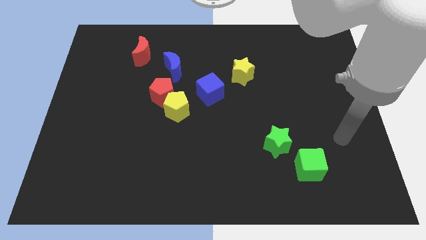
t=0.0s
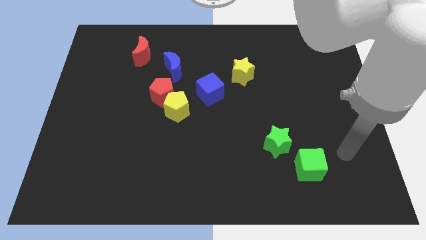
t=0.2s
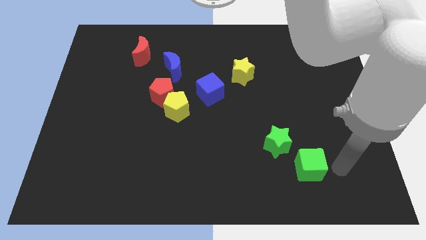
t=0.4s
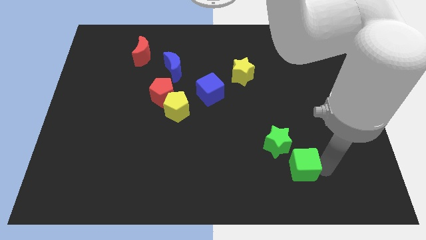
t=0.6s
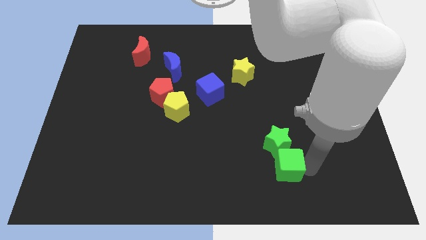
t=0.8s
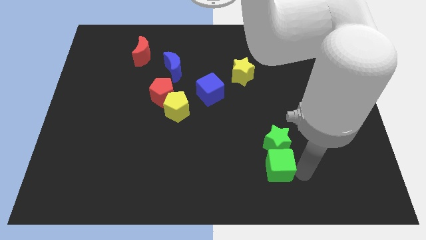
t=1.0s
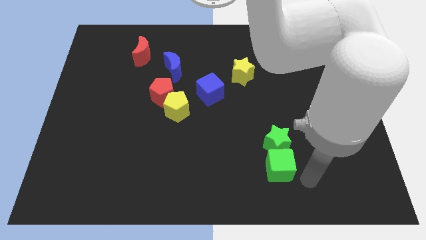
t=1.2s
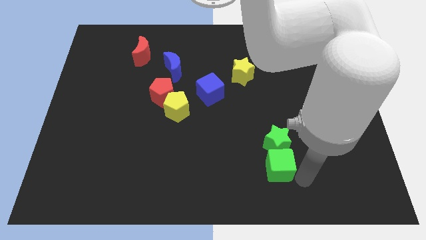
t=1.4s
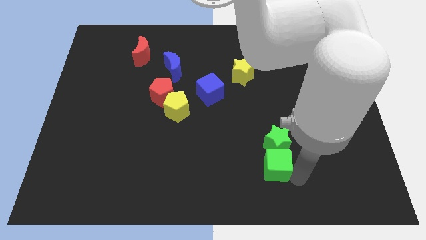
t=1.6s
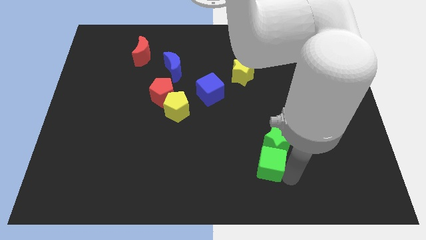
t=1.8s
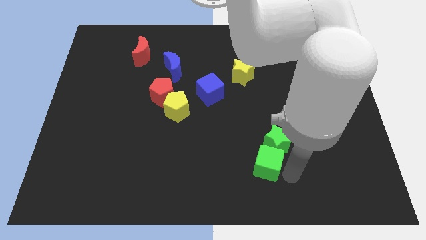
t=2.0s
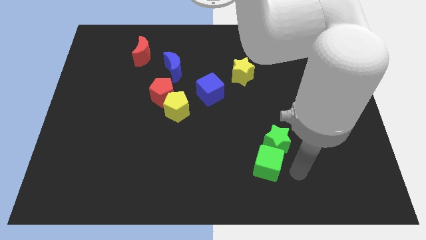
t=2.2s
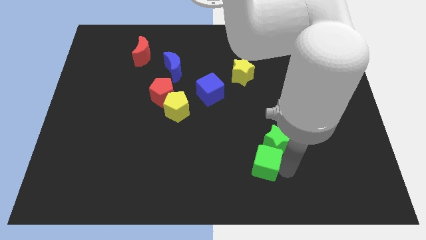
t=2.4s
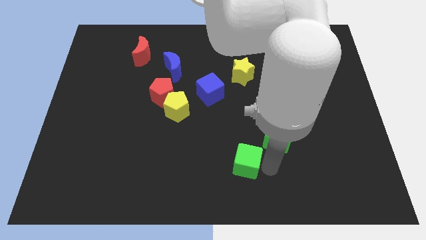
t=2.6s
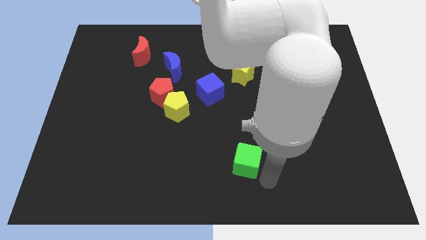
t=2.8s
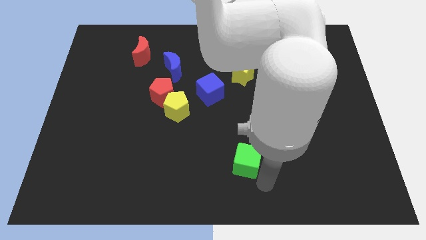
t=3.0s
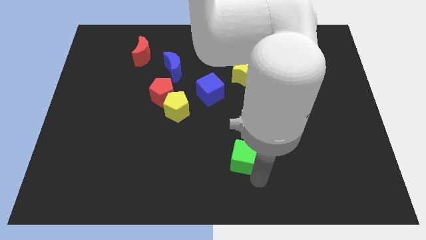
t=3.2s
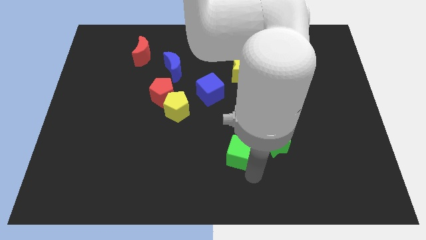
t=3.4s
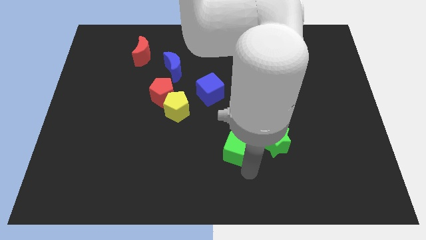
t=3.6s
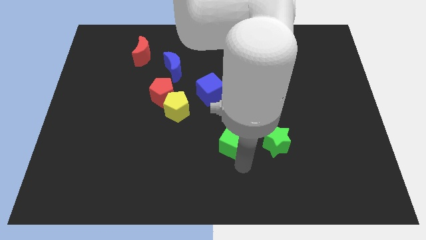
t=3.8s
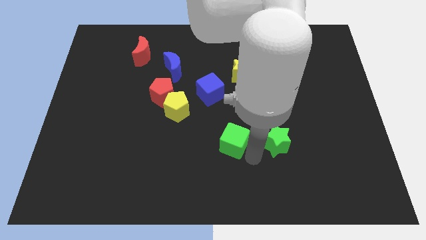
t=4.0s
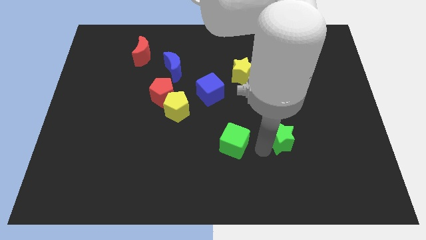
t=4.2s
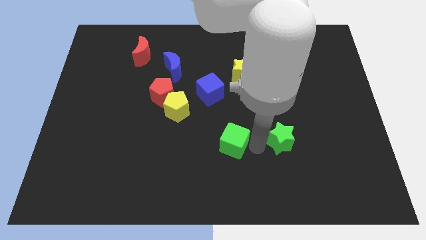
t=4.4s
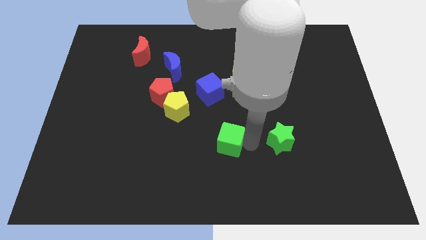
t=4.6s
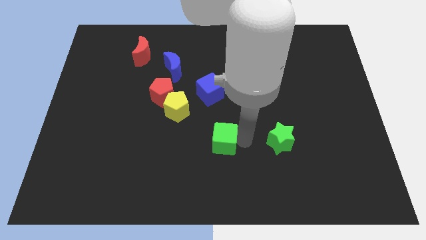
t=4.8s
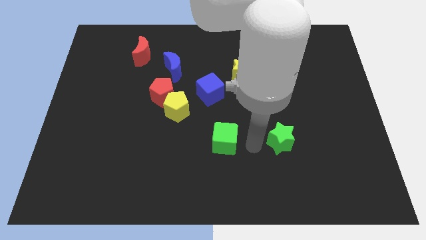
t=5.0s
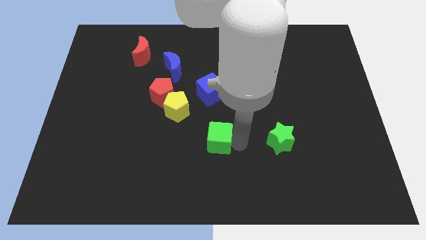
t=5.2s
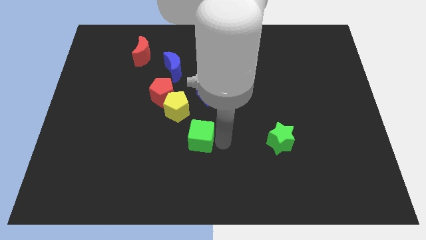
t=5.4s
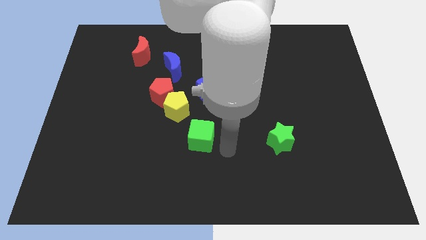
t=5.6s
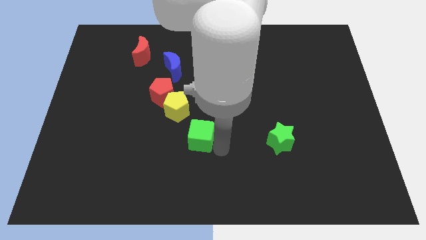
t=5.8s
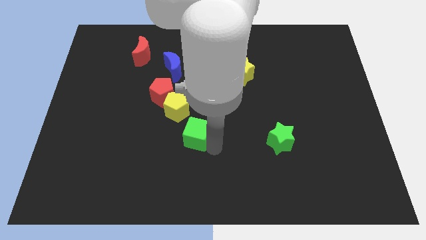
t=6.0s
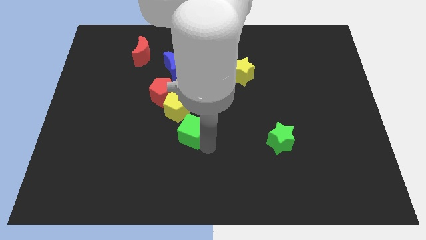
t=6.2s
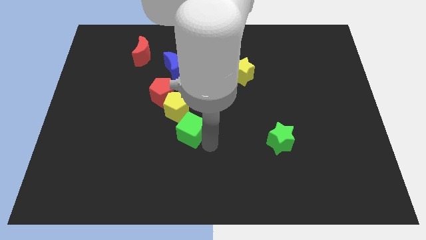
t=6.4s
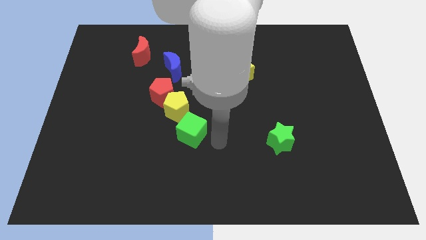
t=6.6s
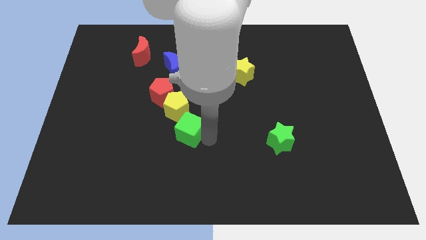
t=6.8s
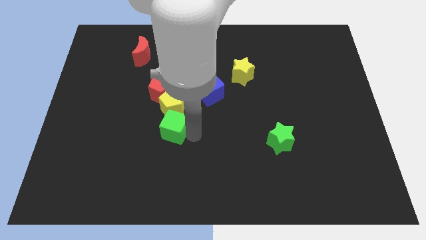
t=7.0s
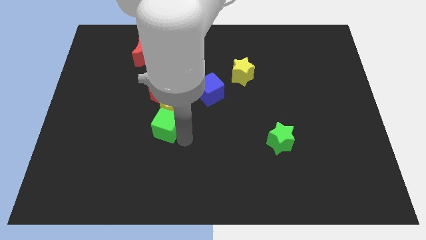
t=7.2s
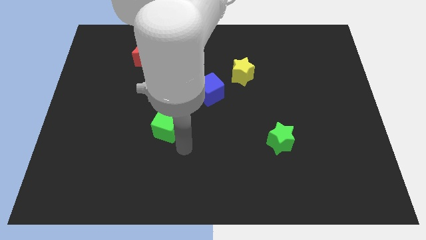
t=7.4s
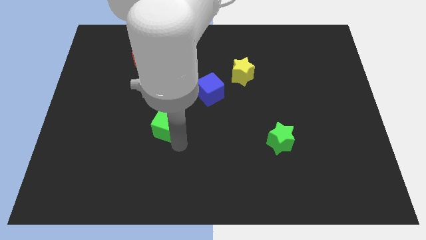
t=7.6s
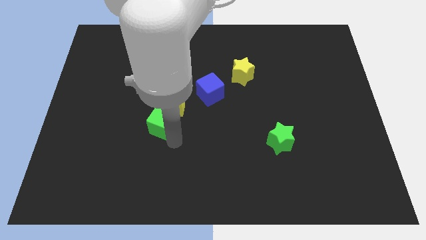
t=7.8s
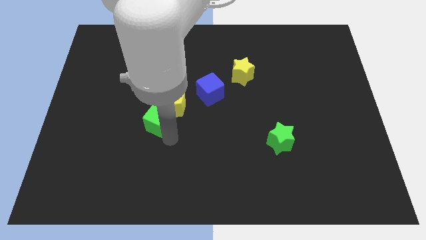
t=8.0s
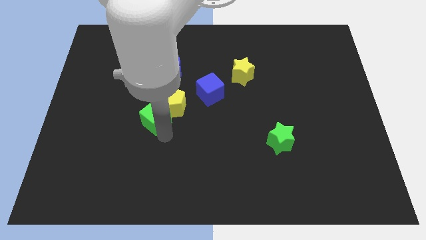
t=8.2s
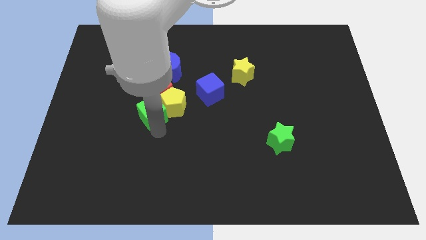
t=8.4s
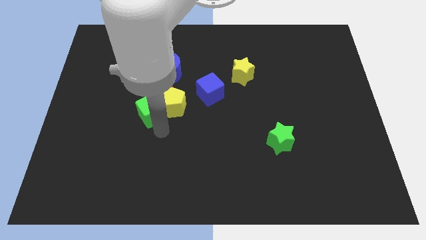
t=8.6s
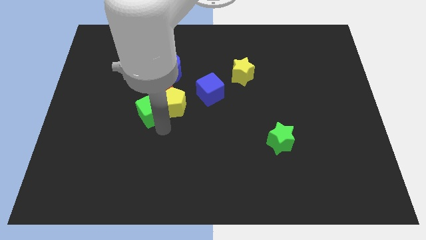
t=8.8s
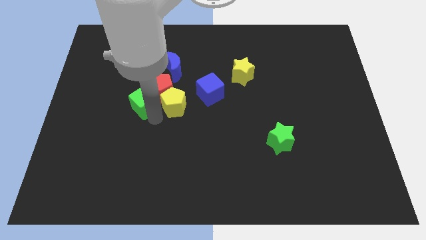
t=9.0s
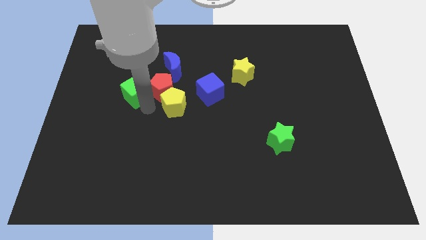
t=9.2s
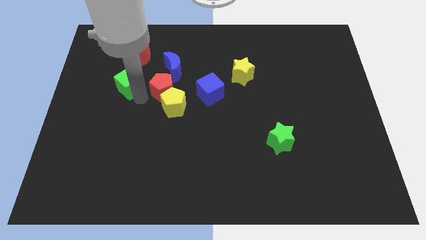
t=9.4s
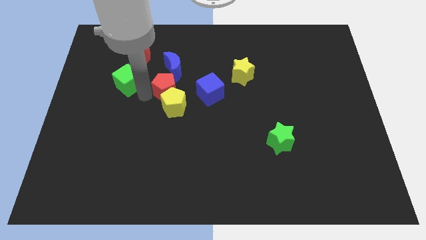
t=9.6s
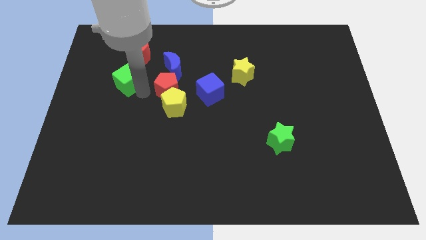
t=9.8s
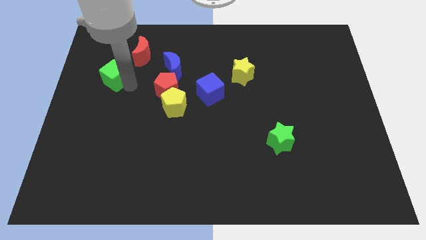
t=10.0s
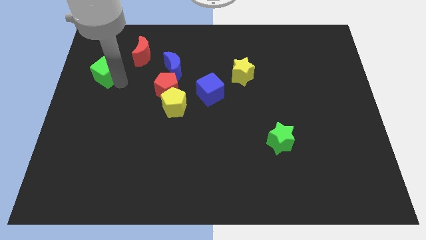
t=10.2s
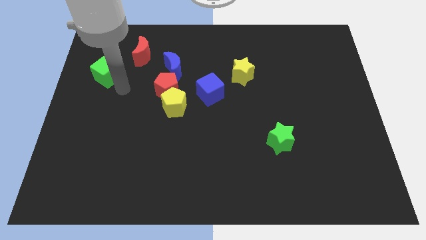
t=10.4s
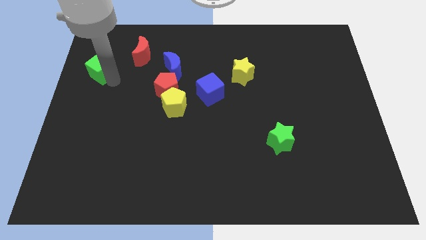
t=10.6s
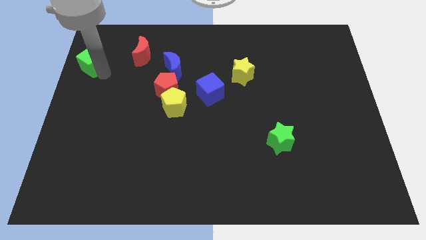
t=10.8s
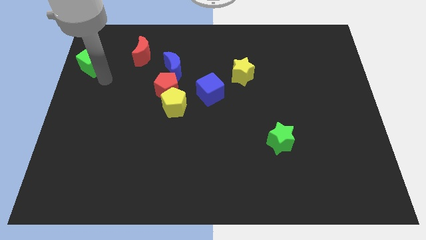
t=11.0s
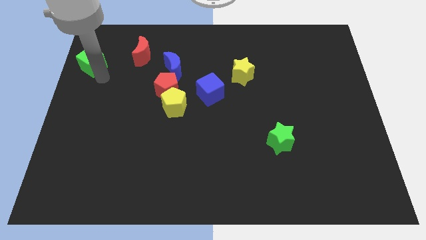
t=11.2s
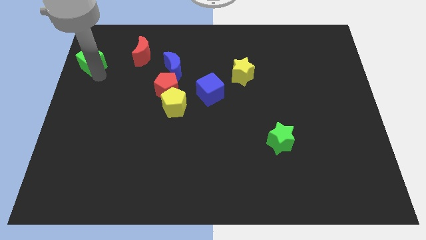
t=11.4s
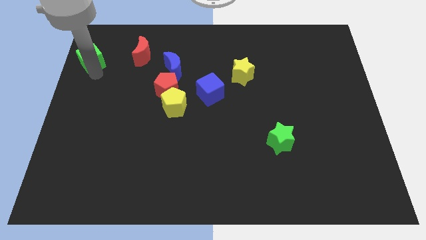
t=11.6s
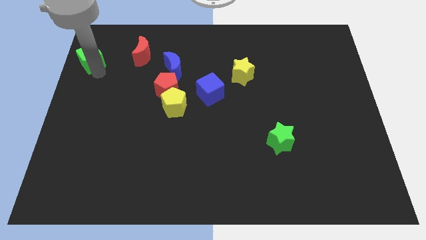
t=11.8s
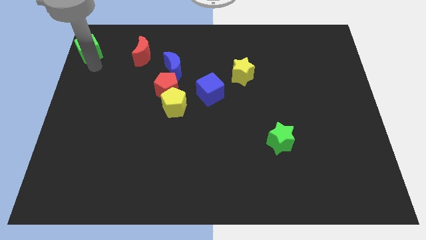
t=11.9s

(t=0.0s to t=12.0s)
slide the green cube to the top left of the board

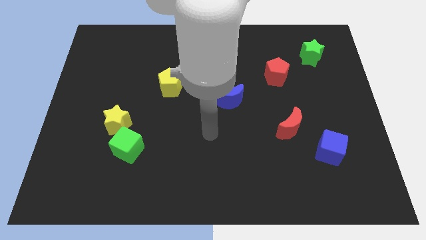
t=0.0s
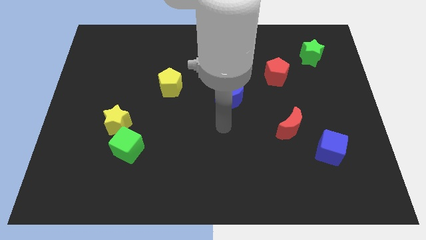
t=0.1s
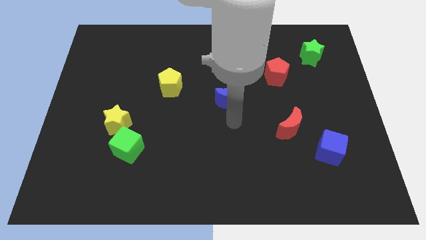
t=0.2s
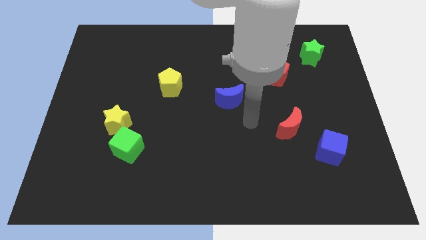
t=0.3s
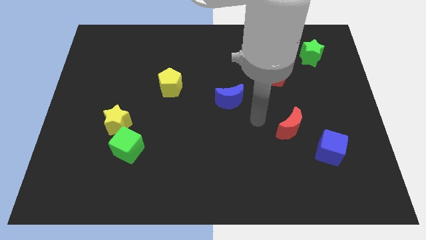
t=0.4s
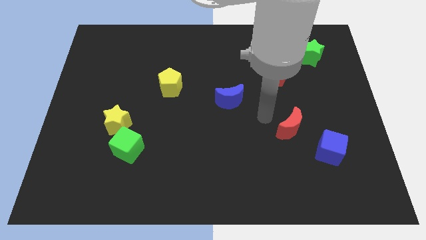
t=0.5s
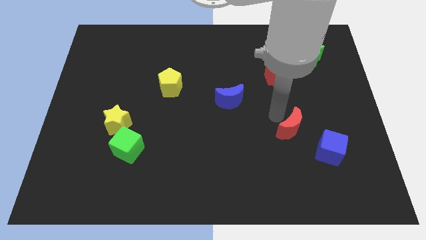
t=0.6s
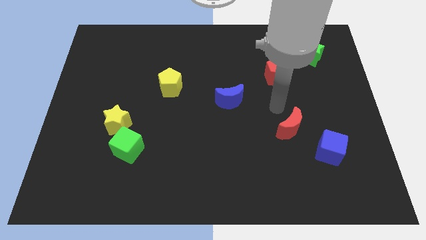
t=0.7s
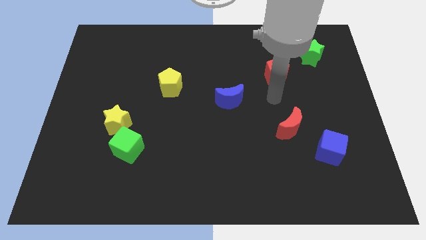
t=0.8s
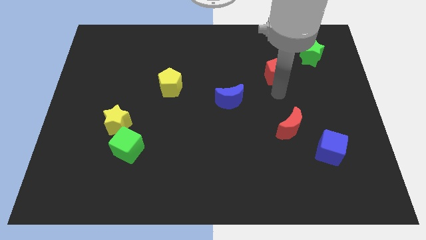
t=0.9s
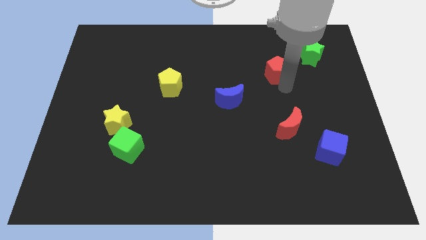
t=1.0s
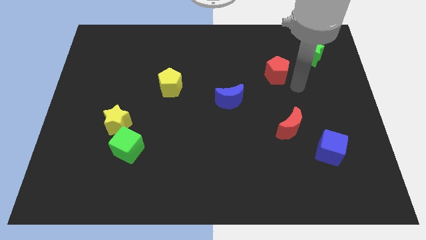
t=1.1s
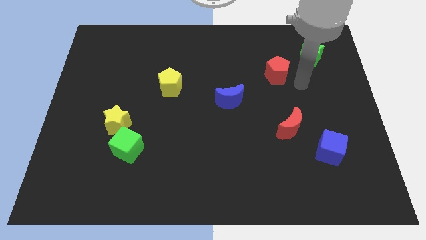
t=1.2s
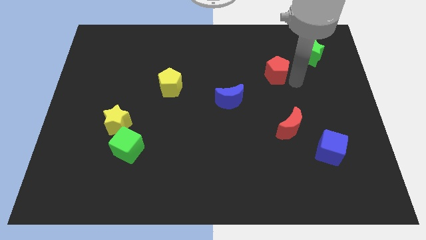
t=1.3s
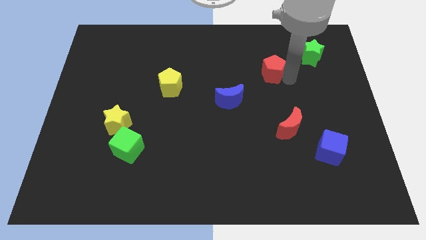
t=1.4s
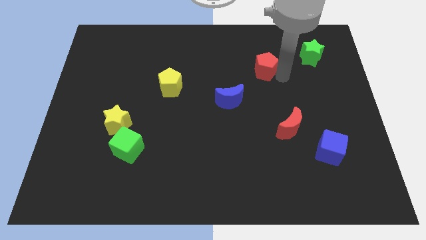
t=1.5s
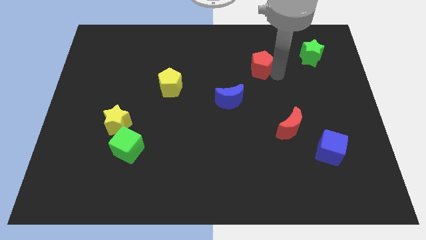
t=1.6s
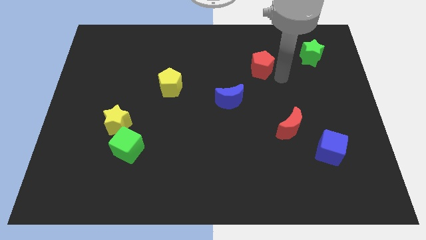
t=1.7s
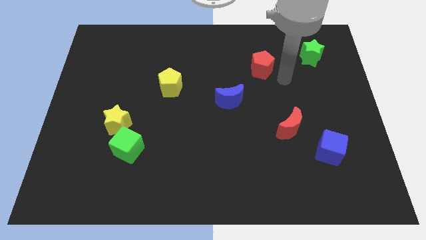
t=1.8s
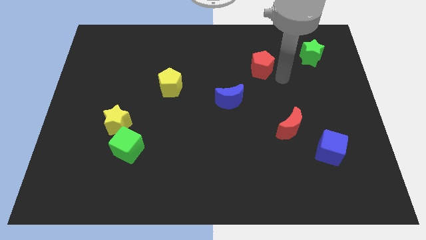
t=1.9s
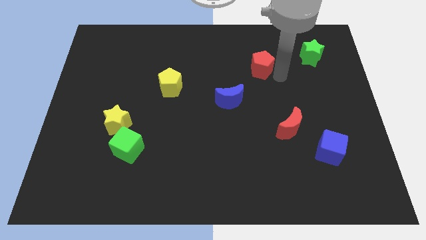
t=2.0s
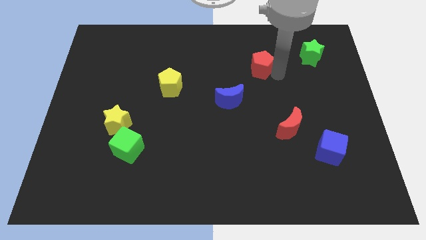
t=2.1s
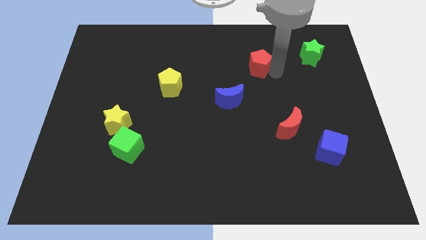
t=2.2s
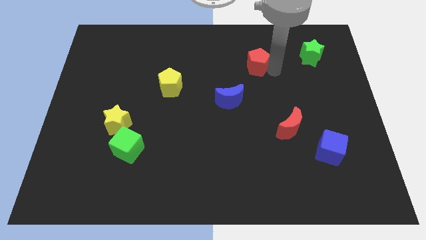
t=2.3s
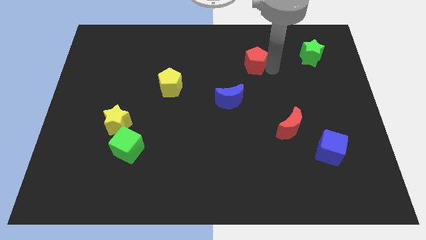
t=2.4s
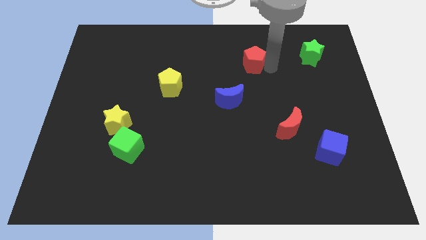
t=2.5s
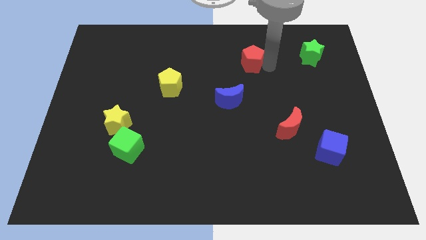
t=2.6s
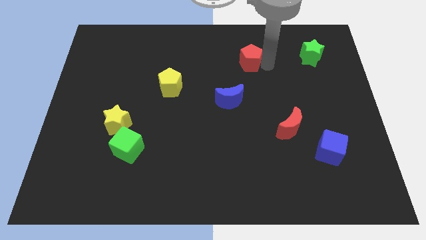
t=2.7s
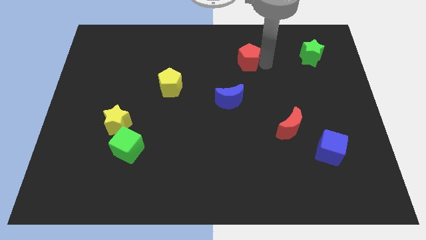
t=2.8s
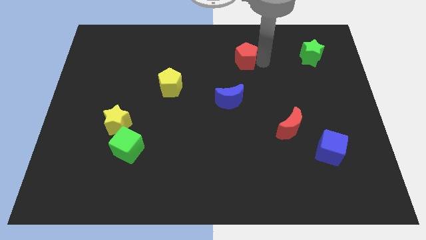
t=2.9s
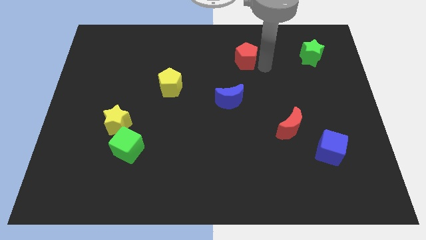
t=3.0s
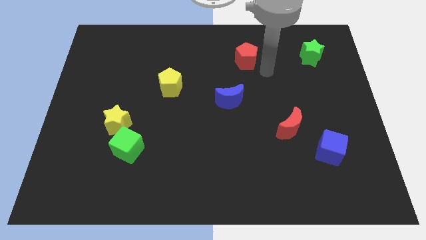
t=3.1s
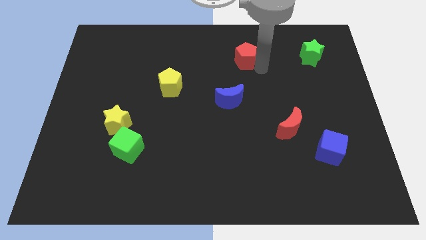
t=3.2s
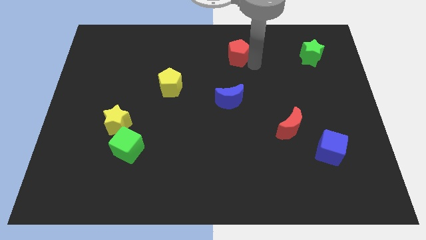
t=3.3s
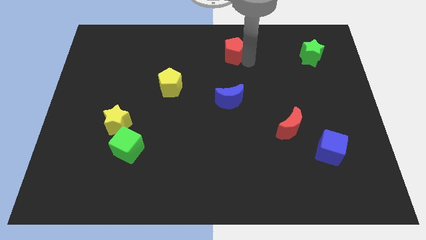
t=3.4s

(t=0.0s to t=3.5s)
move the red pentagon to the top side
